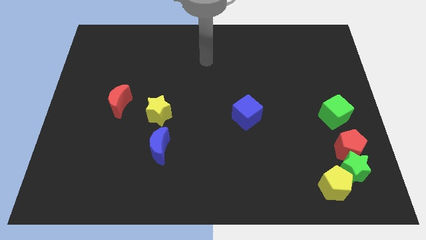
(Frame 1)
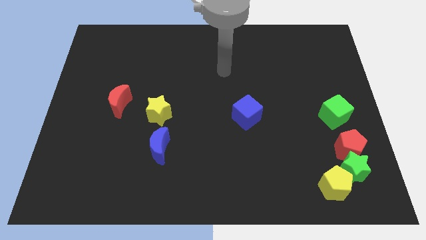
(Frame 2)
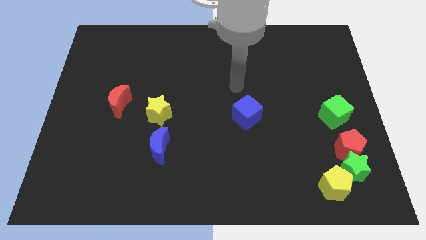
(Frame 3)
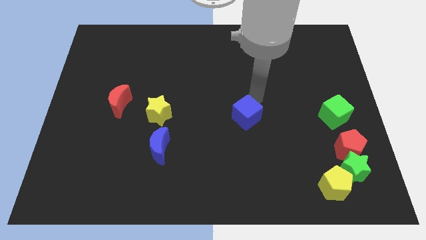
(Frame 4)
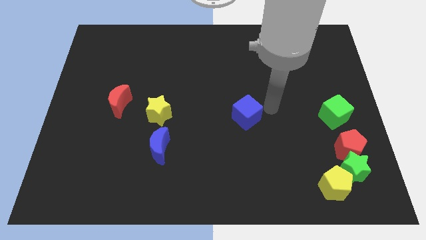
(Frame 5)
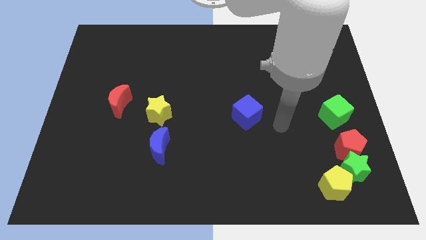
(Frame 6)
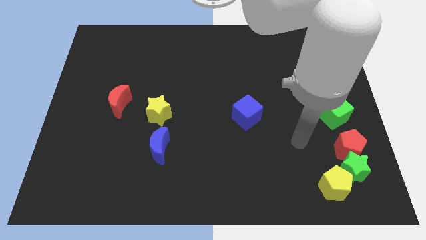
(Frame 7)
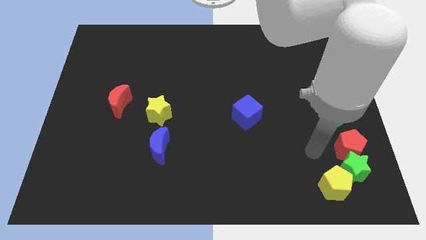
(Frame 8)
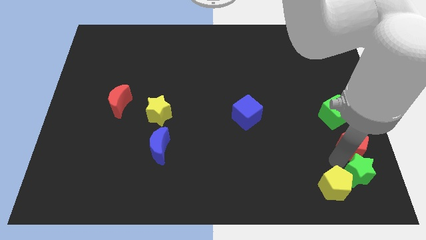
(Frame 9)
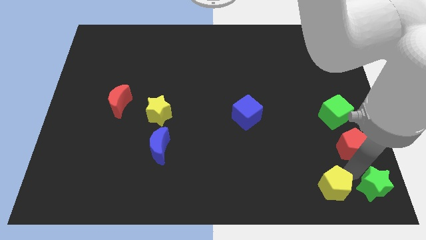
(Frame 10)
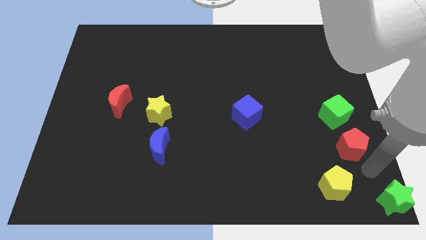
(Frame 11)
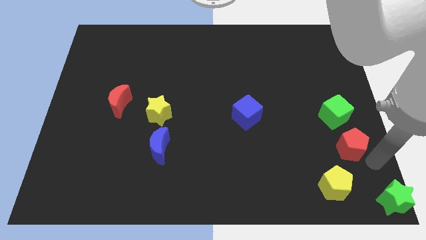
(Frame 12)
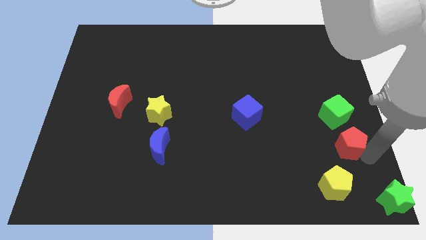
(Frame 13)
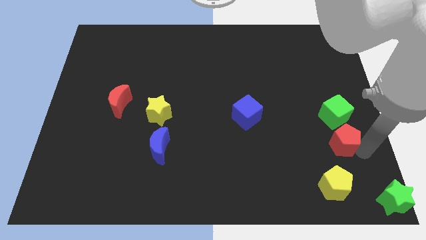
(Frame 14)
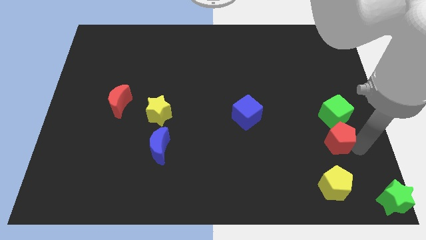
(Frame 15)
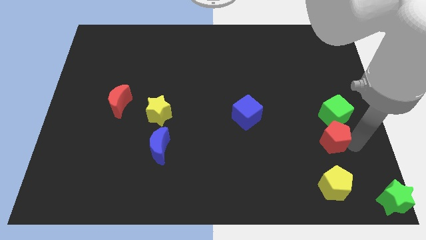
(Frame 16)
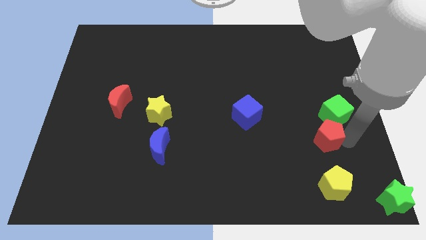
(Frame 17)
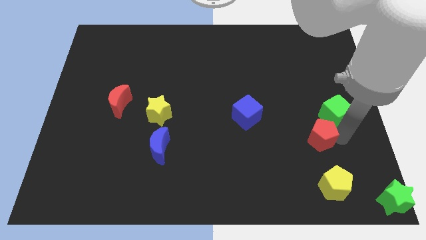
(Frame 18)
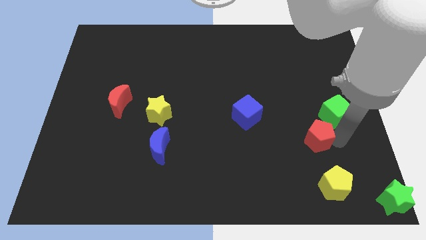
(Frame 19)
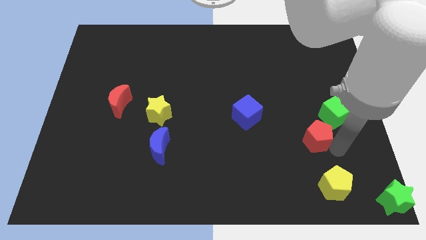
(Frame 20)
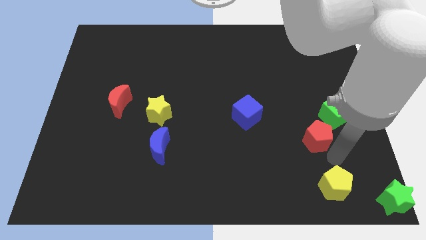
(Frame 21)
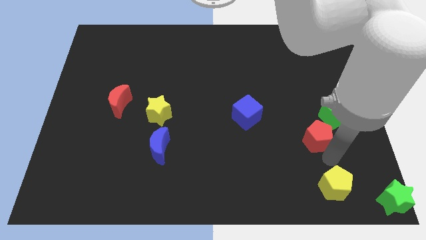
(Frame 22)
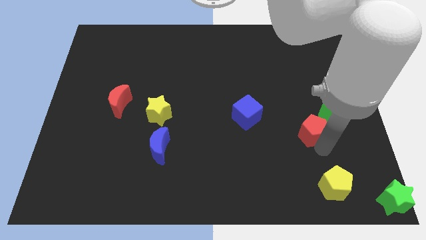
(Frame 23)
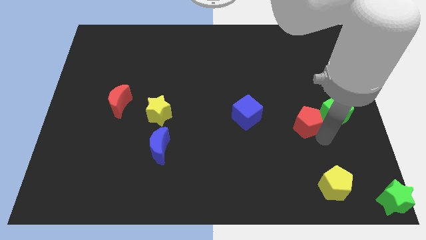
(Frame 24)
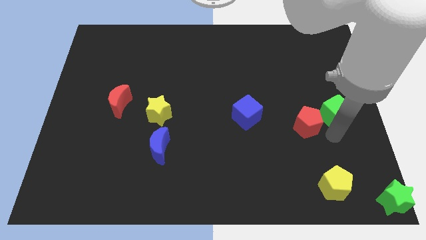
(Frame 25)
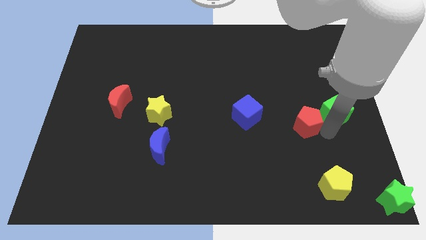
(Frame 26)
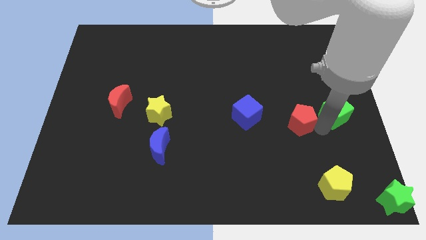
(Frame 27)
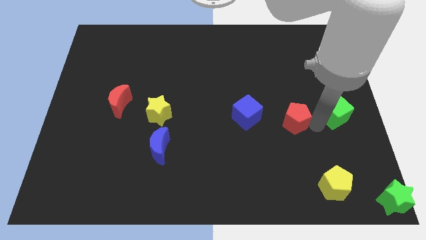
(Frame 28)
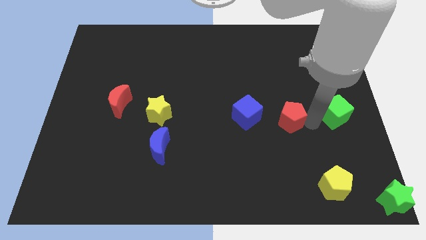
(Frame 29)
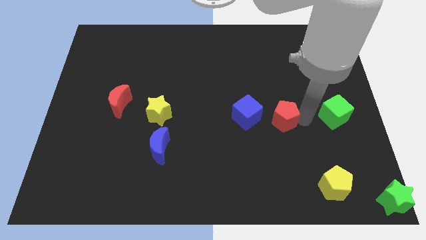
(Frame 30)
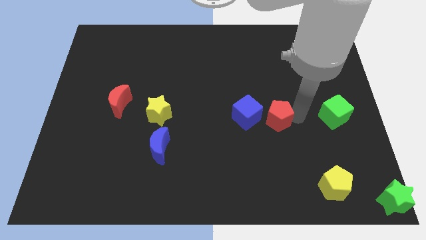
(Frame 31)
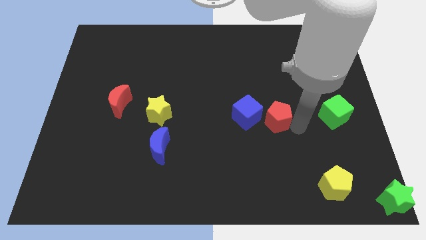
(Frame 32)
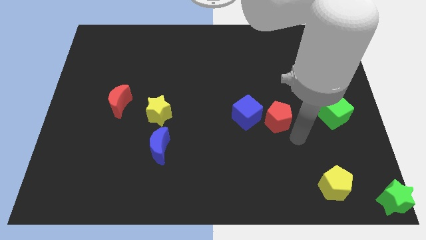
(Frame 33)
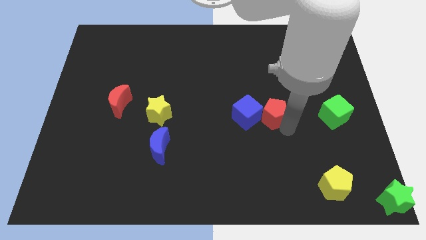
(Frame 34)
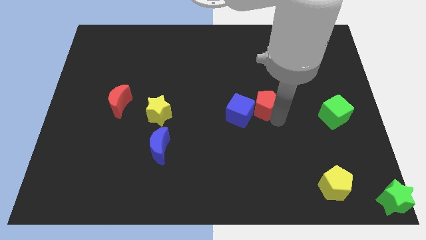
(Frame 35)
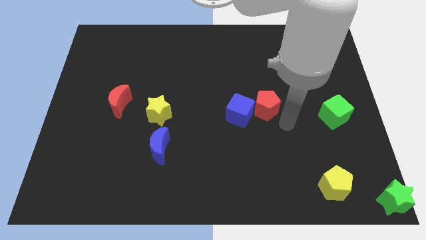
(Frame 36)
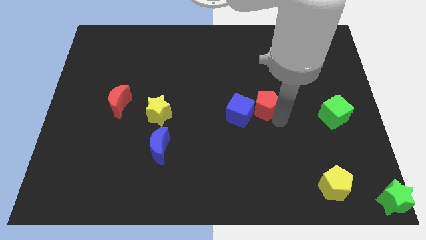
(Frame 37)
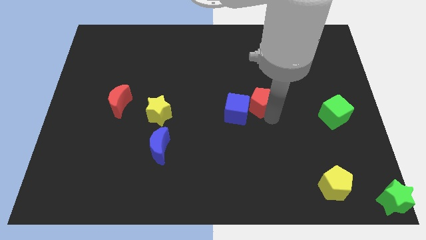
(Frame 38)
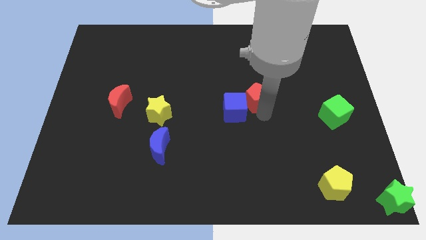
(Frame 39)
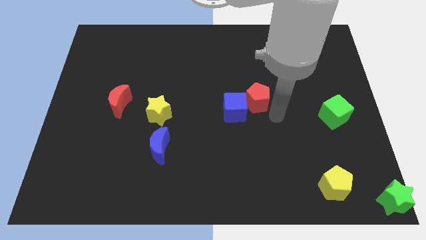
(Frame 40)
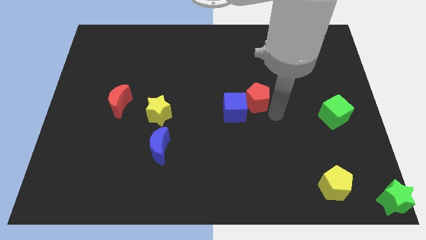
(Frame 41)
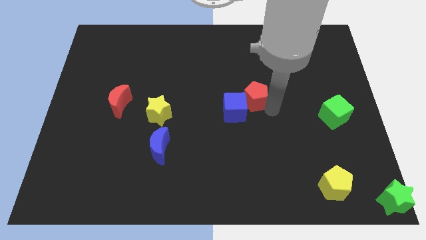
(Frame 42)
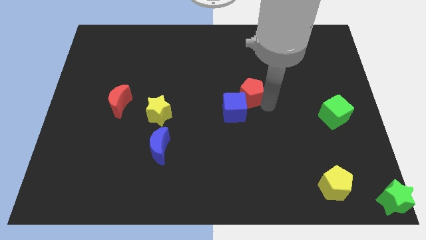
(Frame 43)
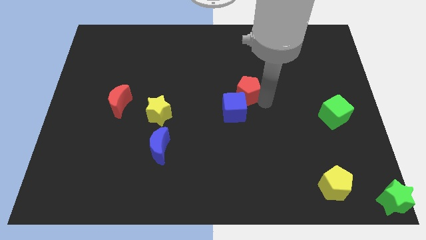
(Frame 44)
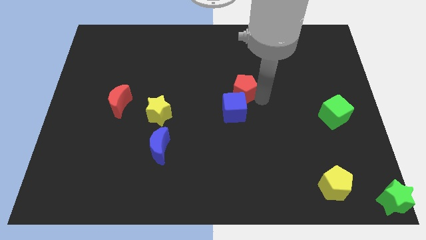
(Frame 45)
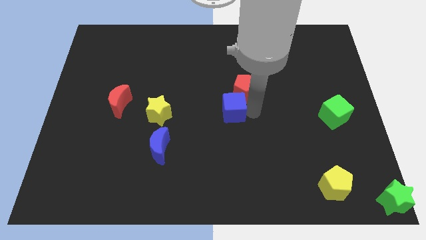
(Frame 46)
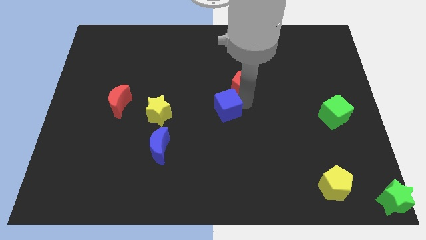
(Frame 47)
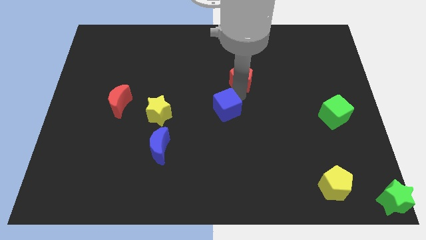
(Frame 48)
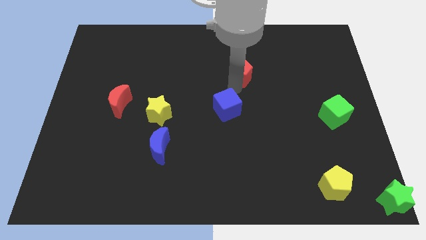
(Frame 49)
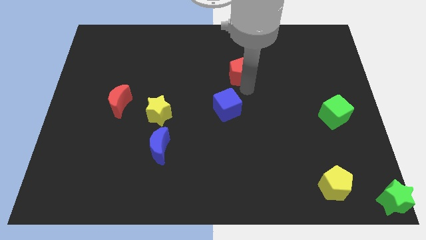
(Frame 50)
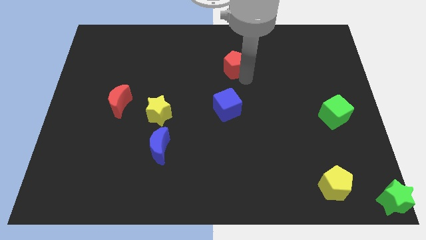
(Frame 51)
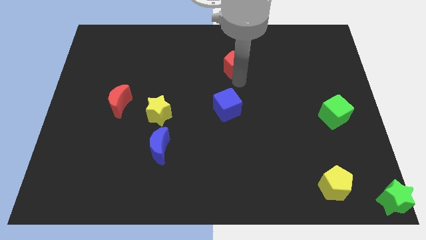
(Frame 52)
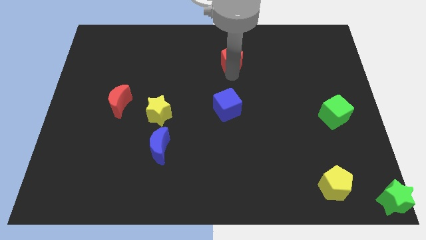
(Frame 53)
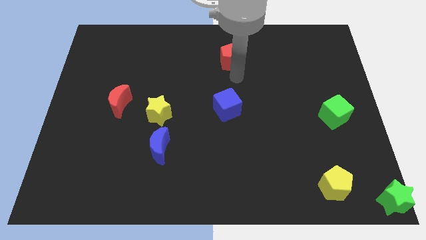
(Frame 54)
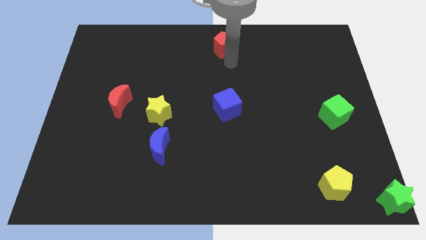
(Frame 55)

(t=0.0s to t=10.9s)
put the red pentagon to the top

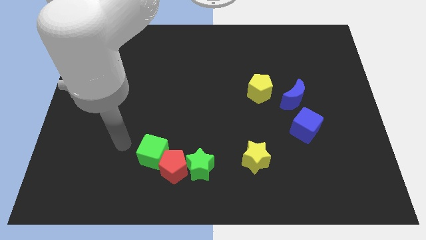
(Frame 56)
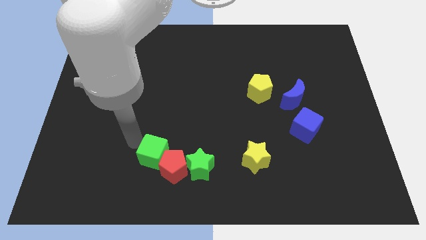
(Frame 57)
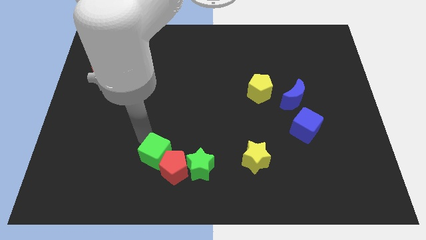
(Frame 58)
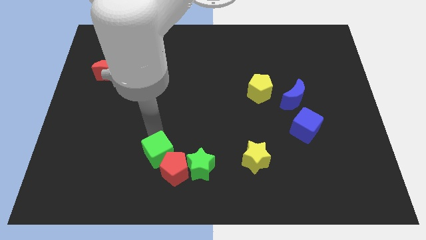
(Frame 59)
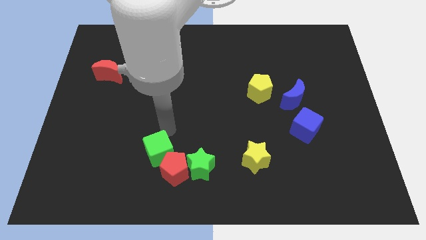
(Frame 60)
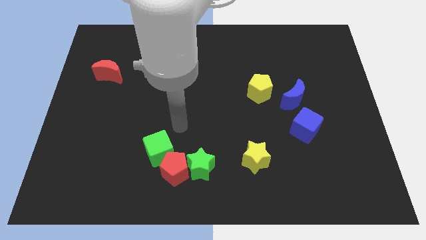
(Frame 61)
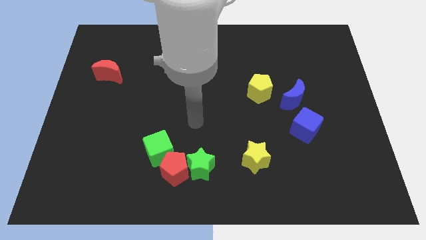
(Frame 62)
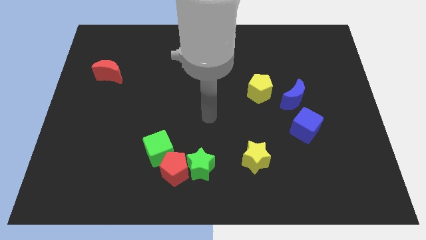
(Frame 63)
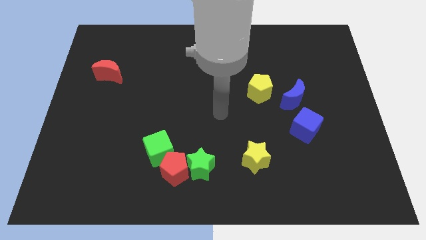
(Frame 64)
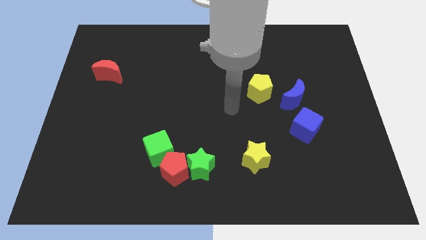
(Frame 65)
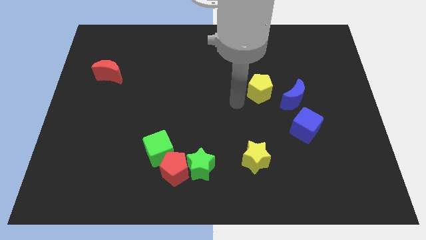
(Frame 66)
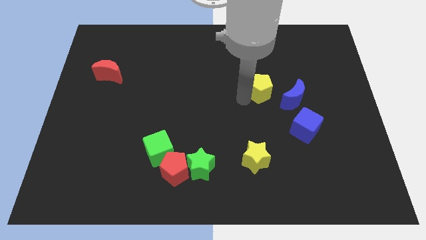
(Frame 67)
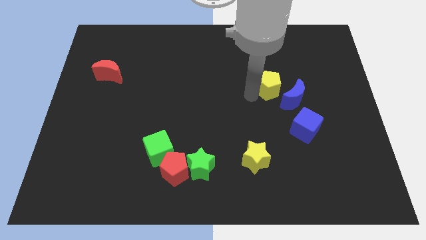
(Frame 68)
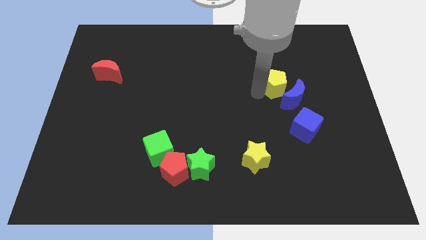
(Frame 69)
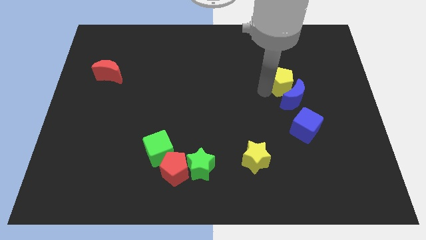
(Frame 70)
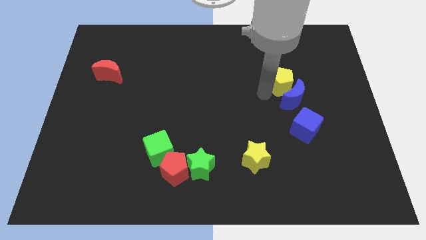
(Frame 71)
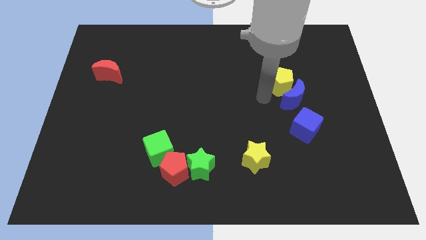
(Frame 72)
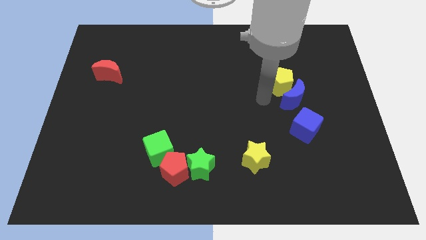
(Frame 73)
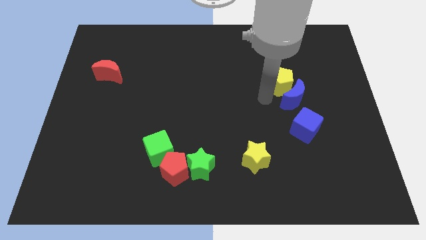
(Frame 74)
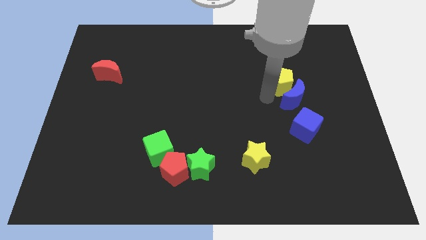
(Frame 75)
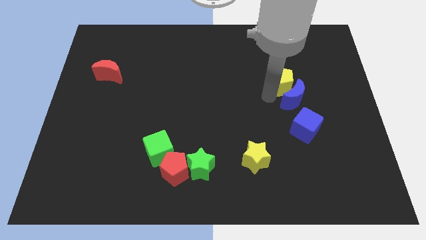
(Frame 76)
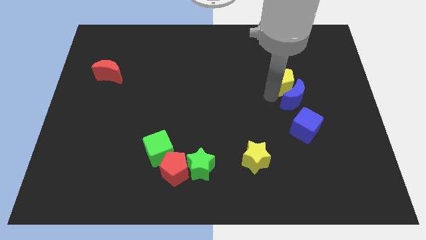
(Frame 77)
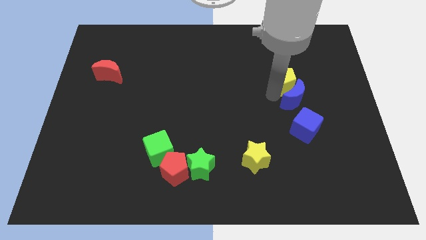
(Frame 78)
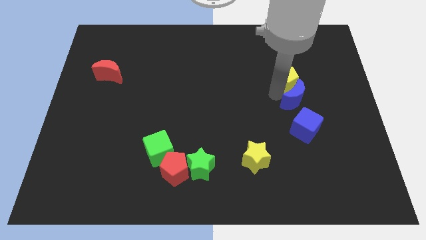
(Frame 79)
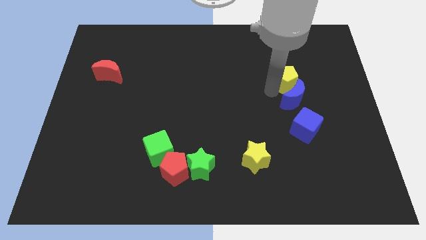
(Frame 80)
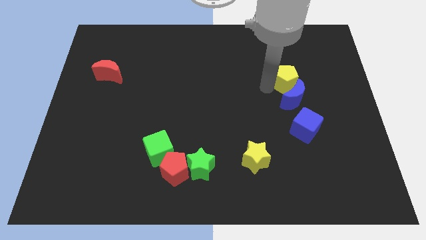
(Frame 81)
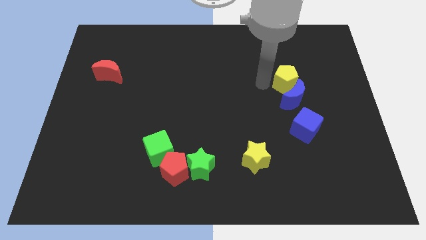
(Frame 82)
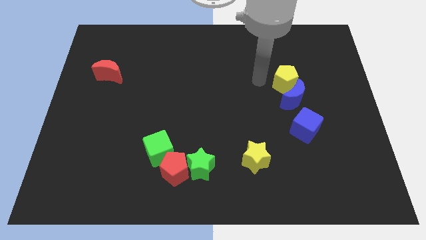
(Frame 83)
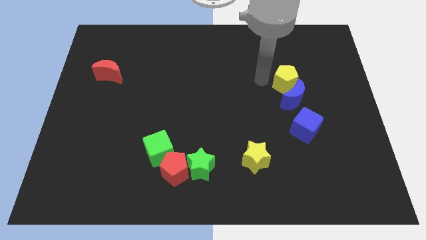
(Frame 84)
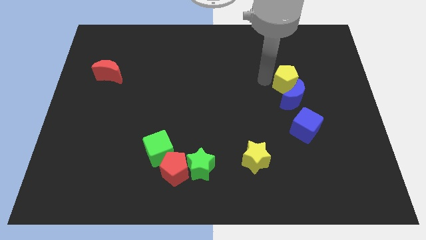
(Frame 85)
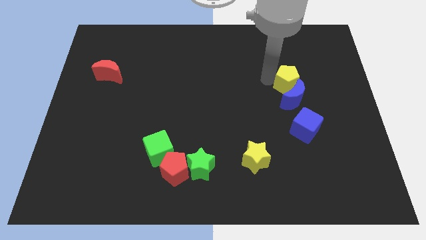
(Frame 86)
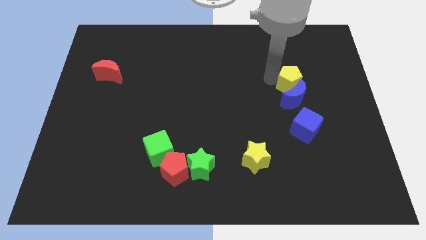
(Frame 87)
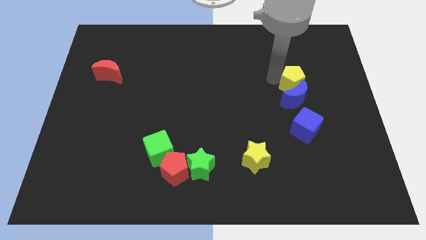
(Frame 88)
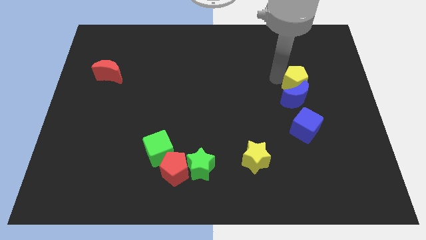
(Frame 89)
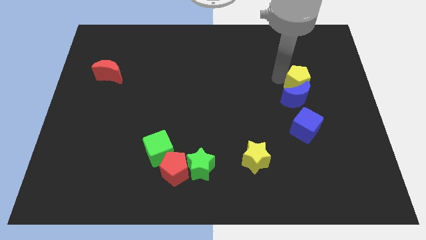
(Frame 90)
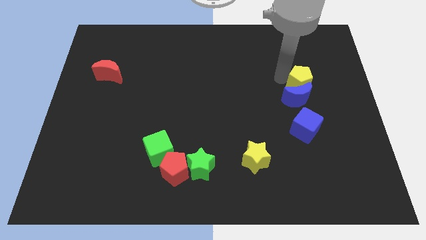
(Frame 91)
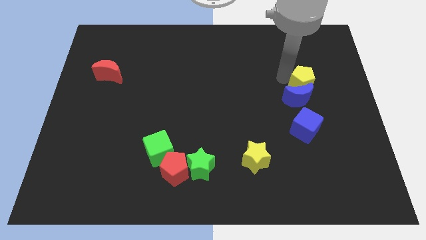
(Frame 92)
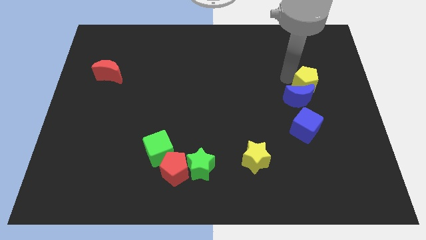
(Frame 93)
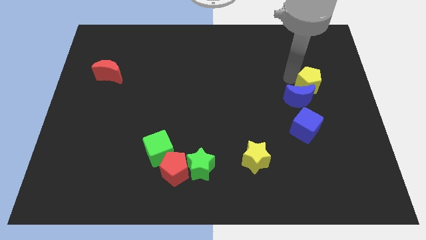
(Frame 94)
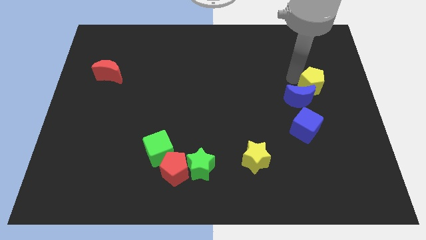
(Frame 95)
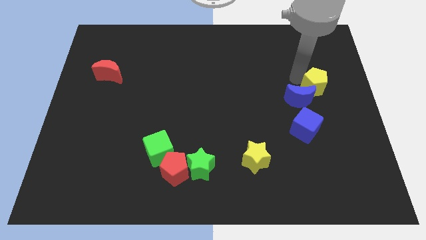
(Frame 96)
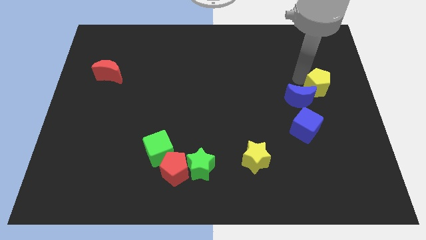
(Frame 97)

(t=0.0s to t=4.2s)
put the yellow pentagon to the right side
